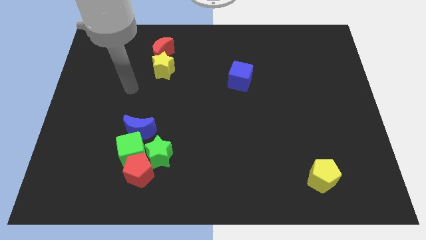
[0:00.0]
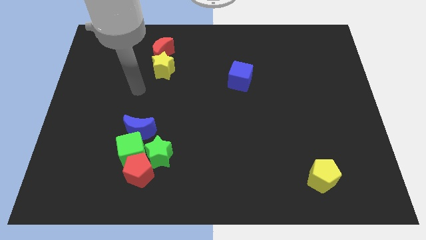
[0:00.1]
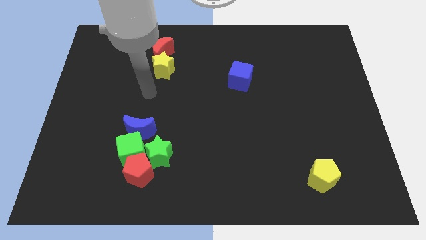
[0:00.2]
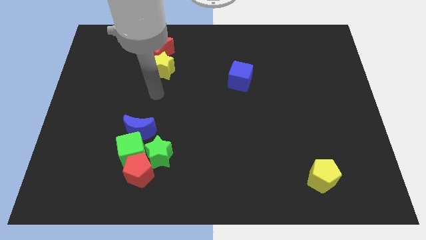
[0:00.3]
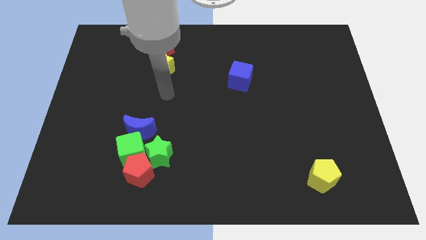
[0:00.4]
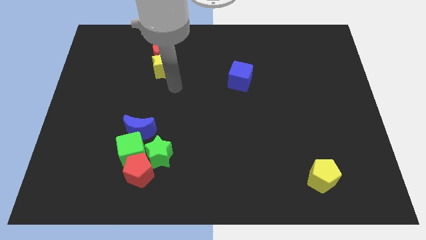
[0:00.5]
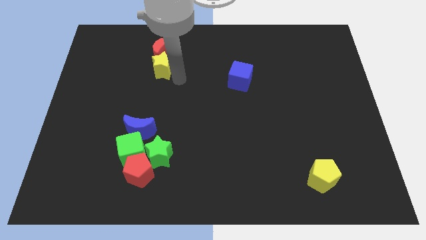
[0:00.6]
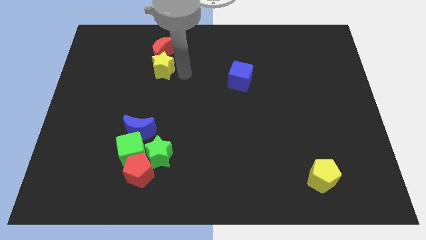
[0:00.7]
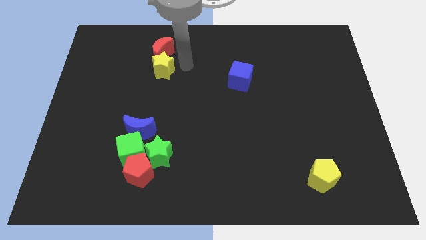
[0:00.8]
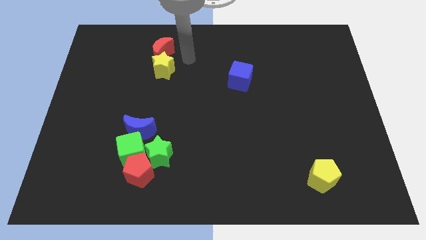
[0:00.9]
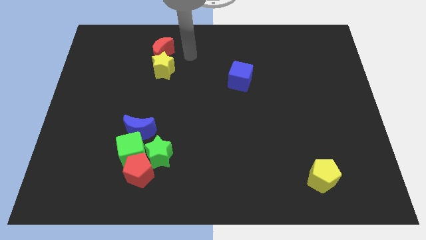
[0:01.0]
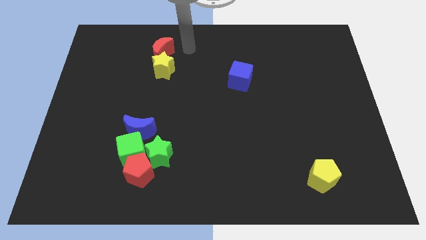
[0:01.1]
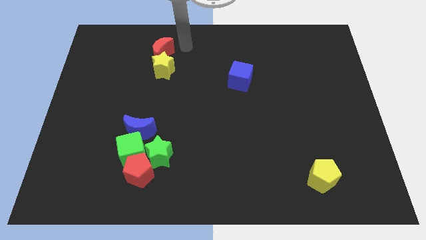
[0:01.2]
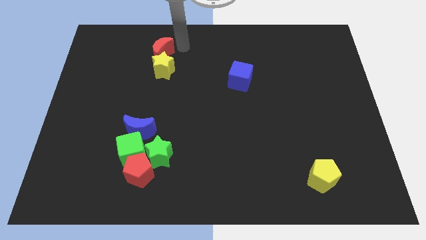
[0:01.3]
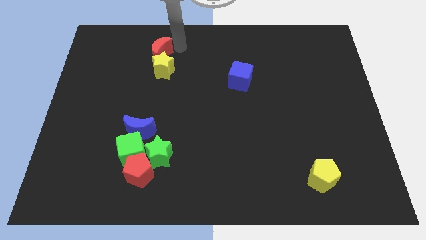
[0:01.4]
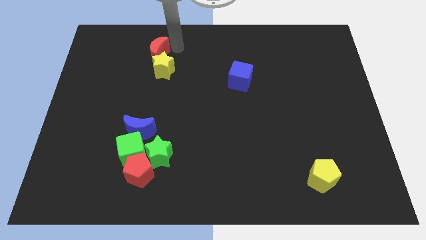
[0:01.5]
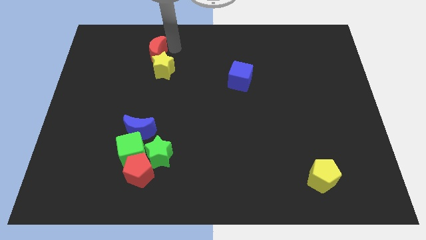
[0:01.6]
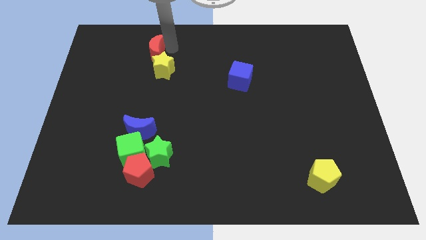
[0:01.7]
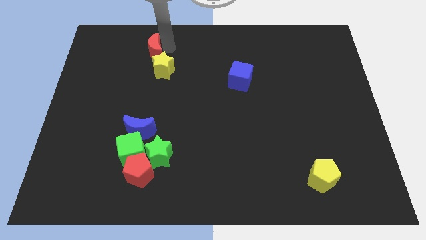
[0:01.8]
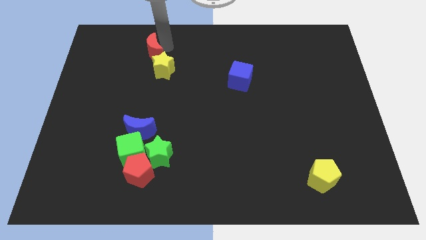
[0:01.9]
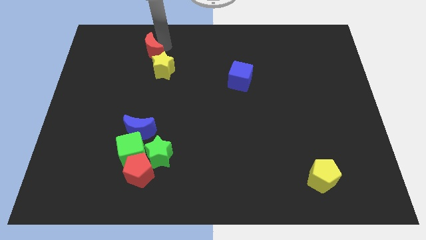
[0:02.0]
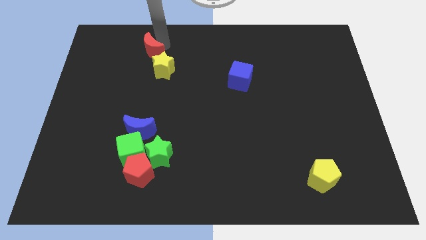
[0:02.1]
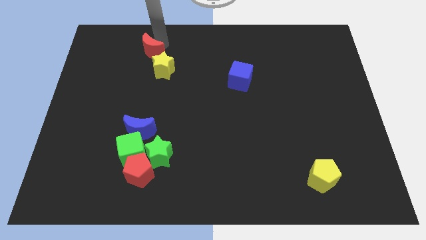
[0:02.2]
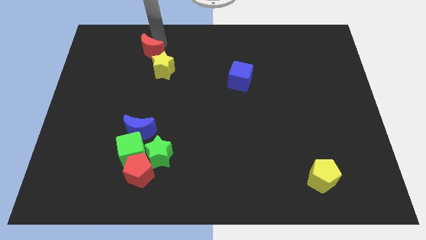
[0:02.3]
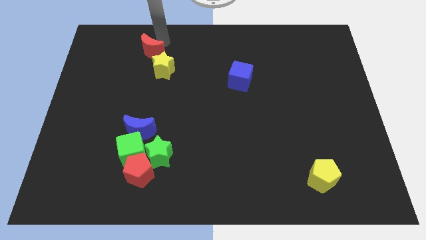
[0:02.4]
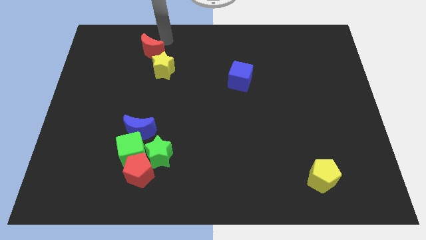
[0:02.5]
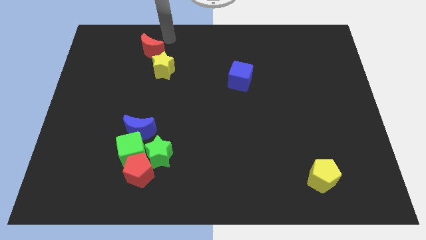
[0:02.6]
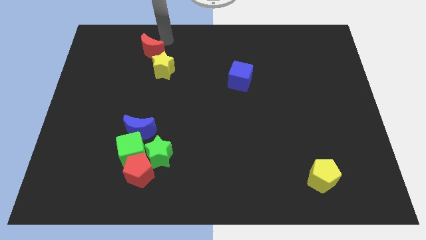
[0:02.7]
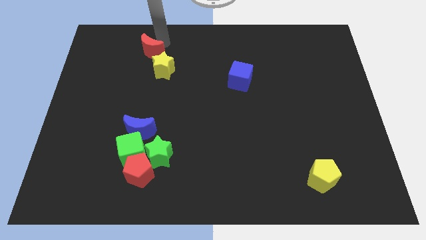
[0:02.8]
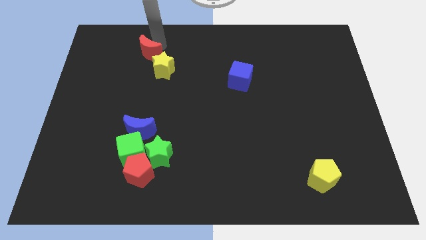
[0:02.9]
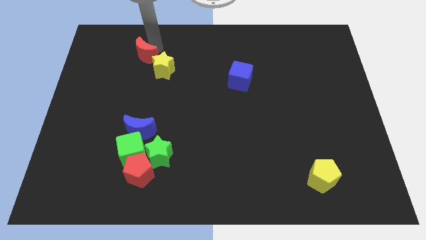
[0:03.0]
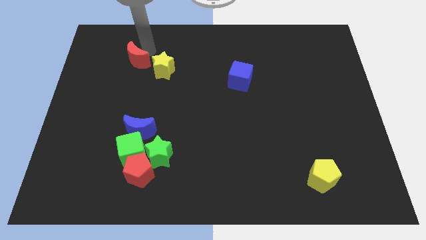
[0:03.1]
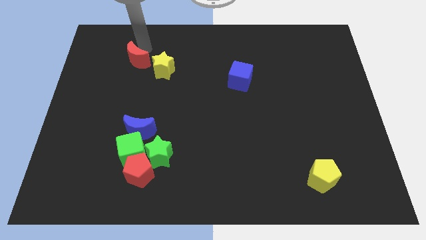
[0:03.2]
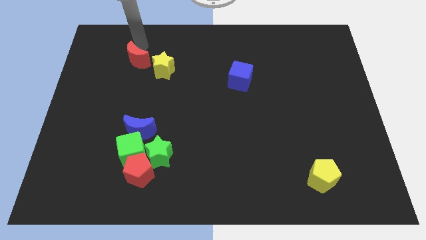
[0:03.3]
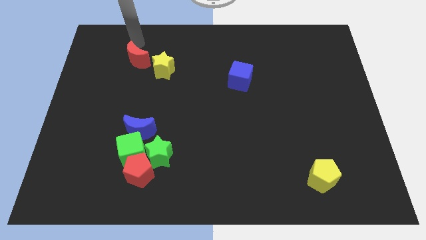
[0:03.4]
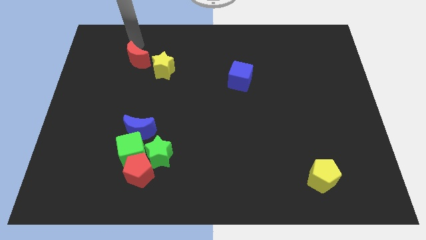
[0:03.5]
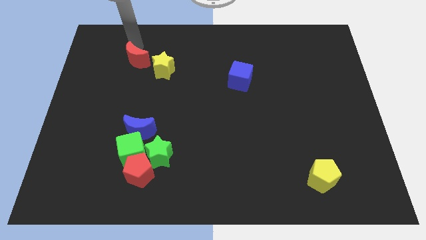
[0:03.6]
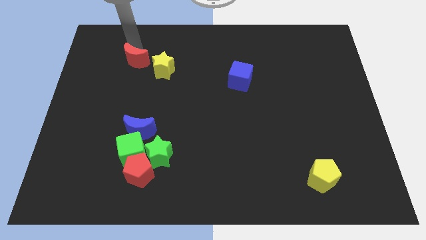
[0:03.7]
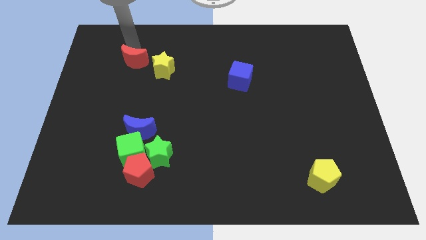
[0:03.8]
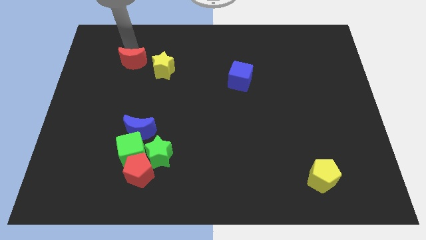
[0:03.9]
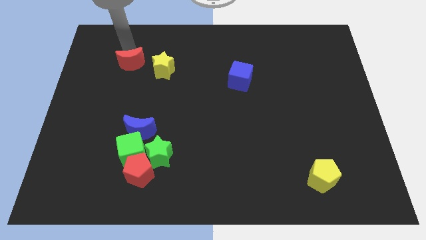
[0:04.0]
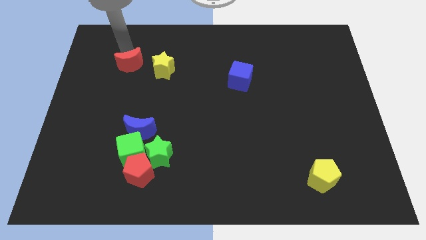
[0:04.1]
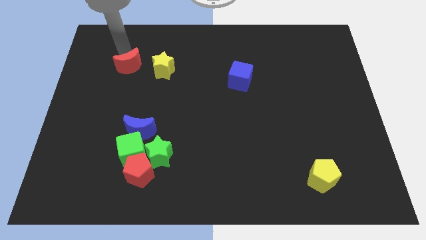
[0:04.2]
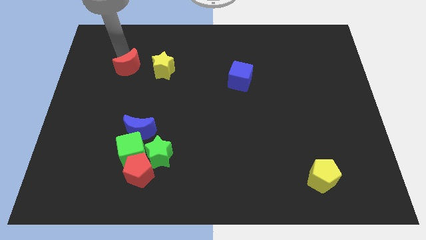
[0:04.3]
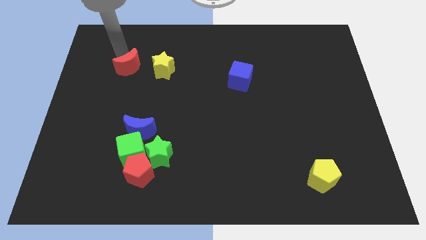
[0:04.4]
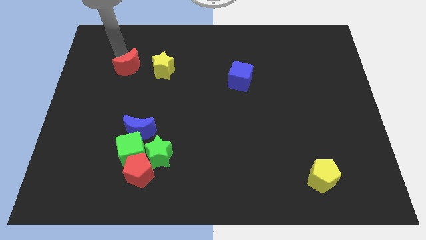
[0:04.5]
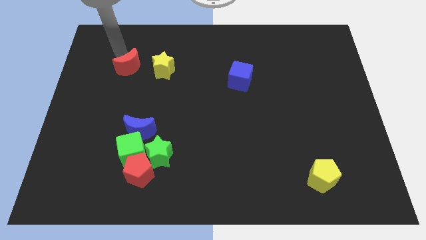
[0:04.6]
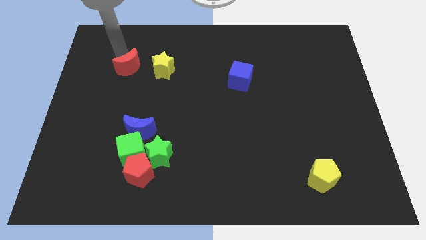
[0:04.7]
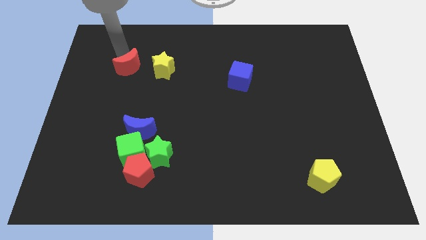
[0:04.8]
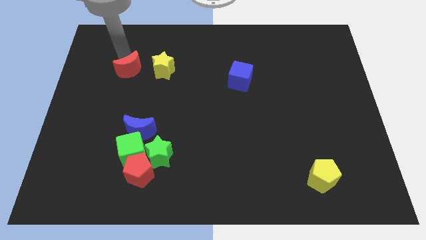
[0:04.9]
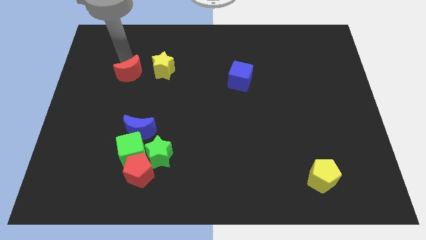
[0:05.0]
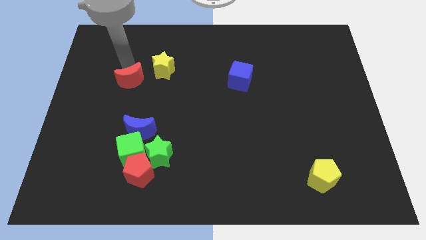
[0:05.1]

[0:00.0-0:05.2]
move the red moon a little downwards

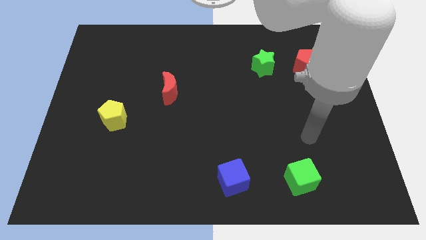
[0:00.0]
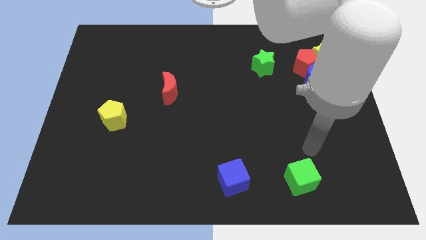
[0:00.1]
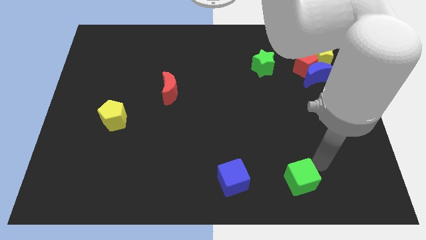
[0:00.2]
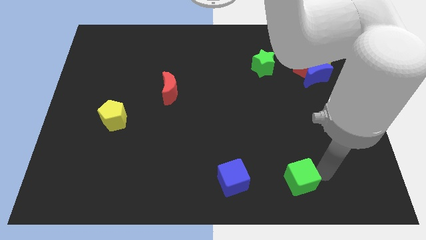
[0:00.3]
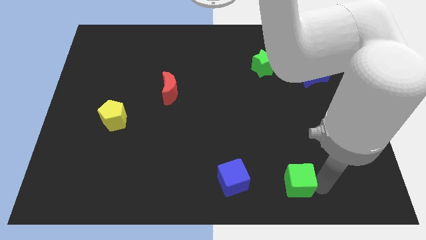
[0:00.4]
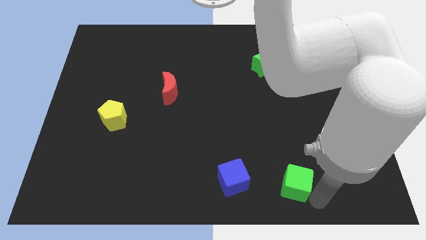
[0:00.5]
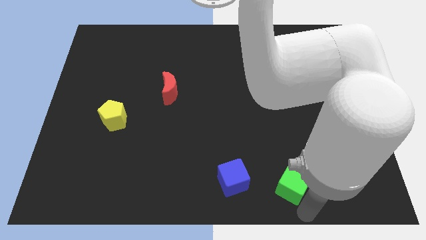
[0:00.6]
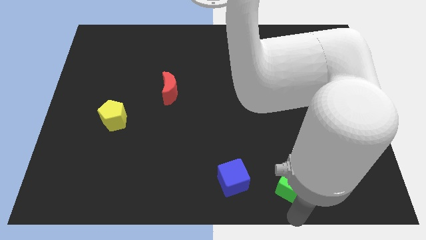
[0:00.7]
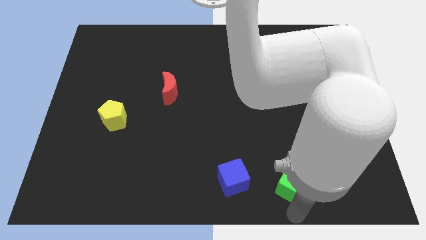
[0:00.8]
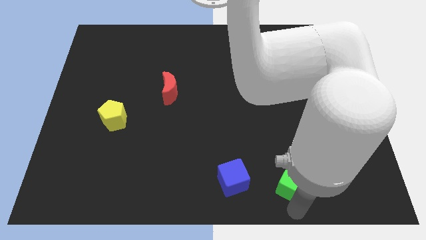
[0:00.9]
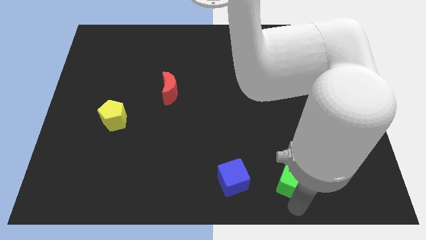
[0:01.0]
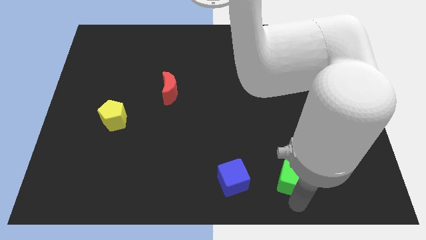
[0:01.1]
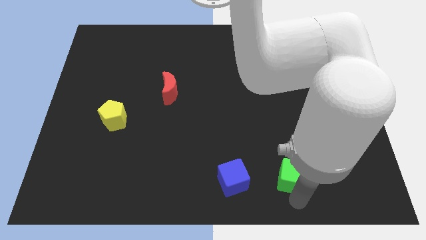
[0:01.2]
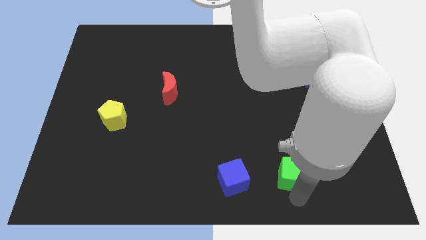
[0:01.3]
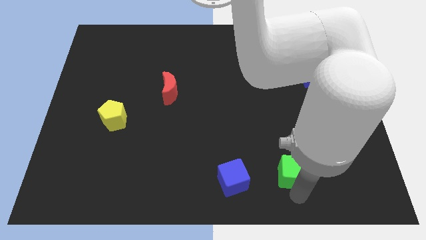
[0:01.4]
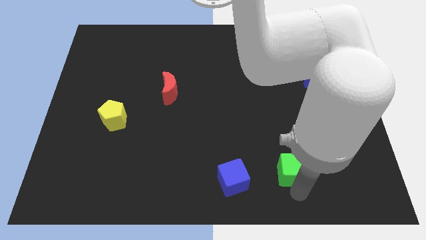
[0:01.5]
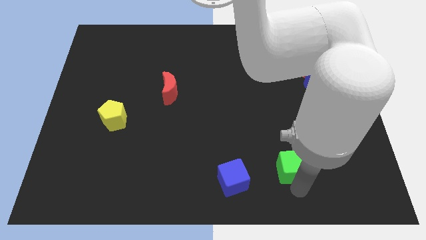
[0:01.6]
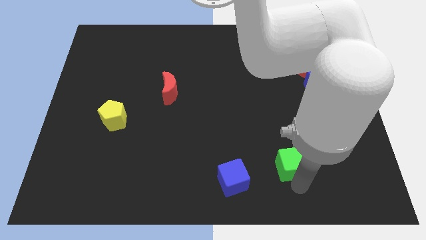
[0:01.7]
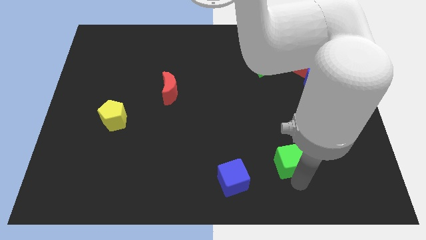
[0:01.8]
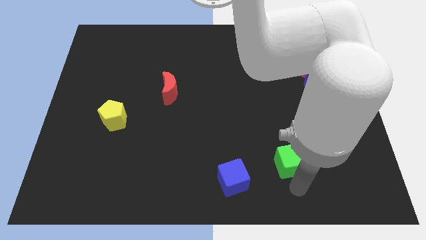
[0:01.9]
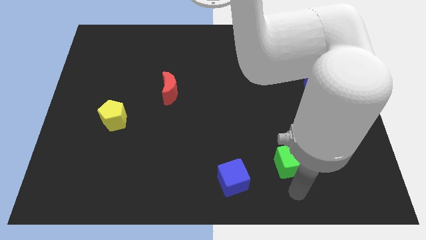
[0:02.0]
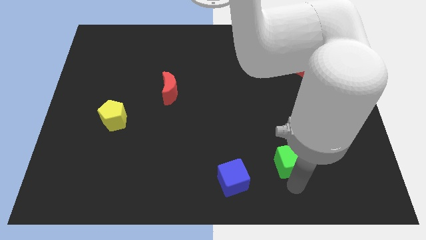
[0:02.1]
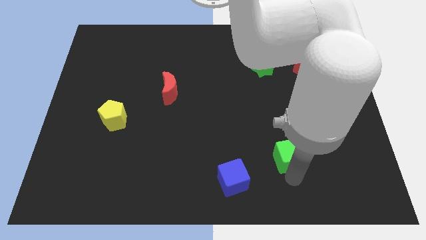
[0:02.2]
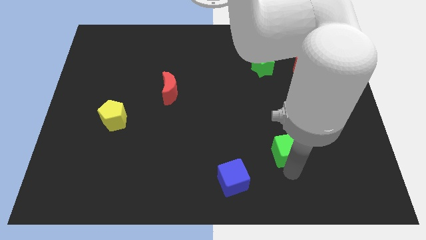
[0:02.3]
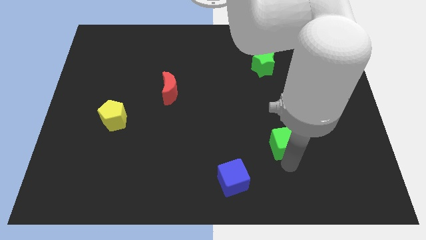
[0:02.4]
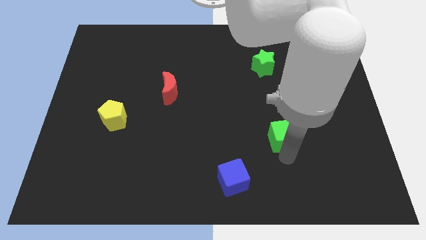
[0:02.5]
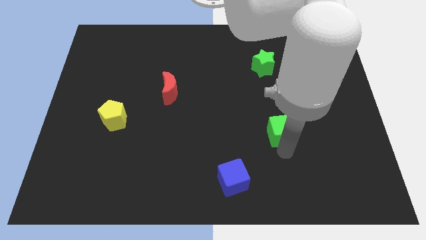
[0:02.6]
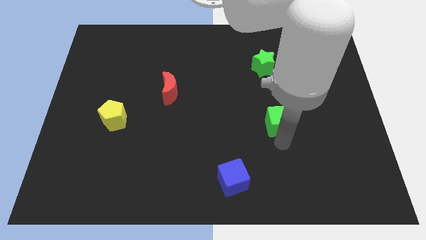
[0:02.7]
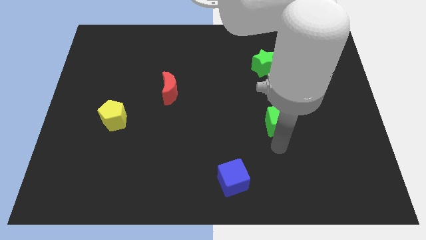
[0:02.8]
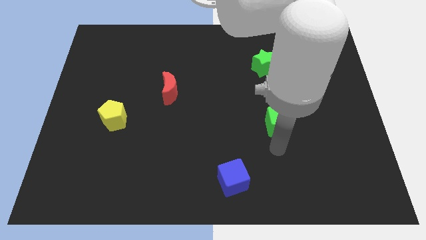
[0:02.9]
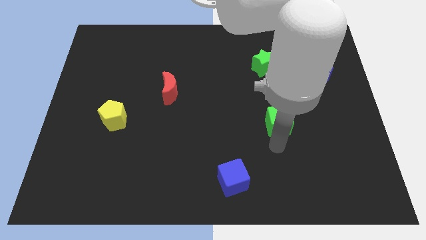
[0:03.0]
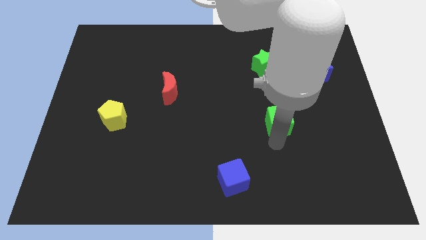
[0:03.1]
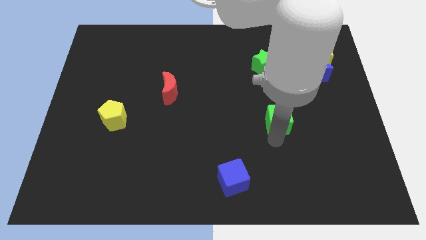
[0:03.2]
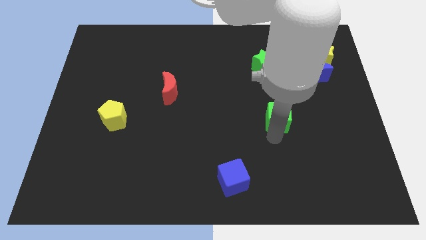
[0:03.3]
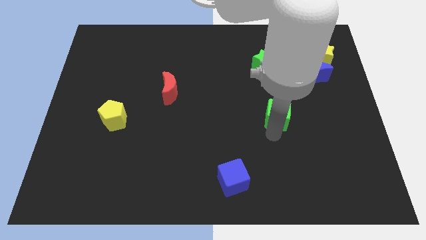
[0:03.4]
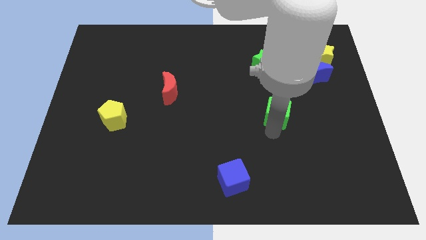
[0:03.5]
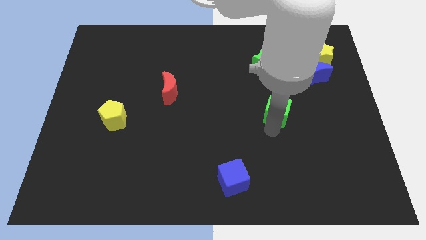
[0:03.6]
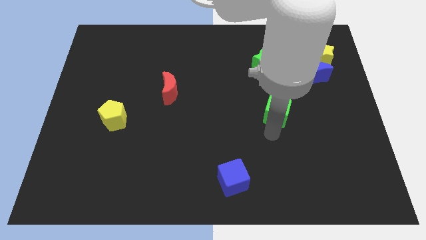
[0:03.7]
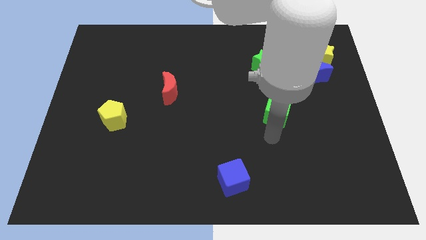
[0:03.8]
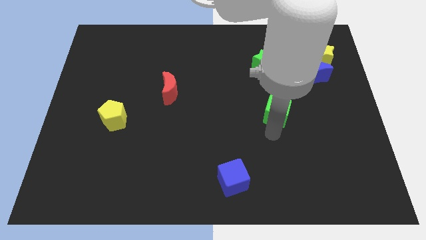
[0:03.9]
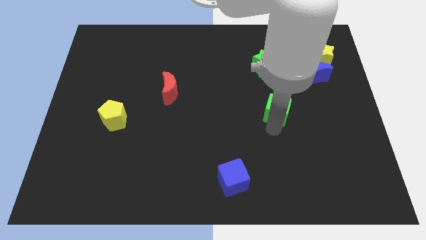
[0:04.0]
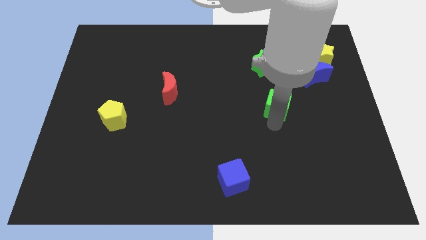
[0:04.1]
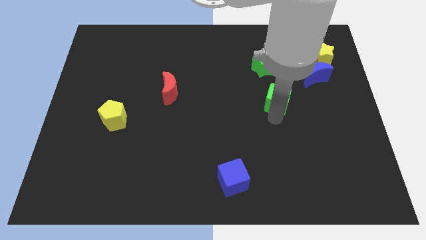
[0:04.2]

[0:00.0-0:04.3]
push the green cube up
